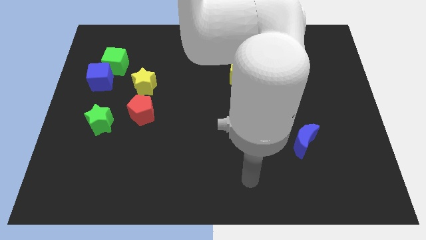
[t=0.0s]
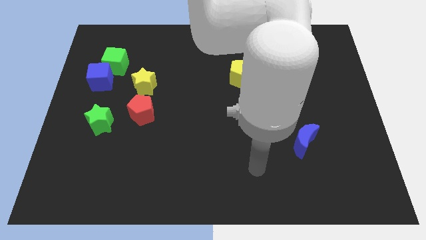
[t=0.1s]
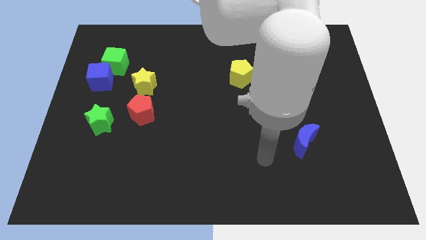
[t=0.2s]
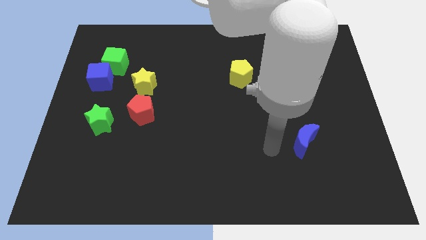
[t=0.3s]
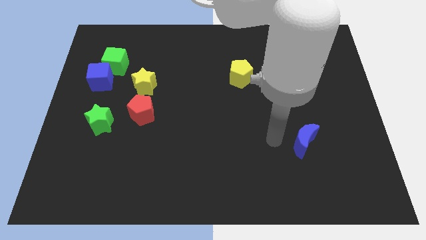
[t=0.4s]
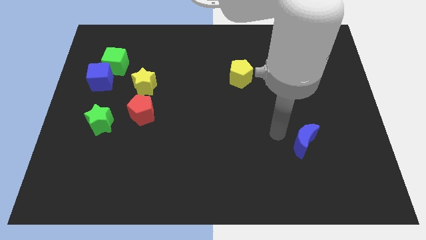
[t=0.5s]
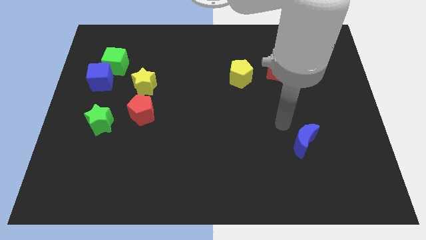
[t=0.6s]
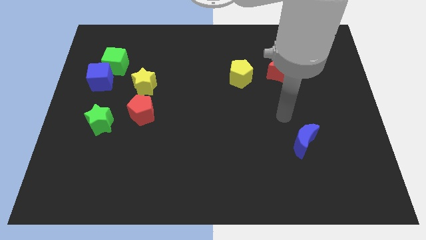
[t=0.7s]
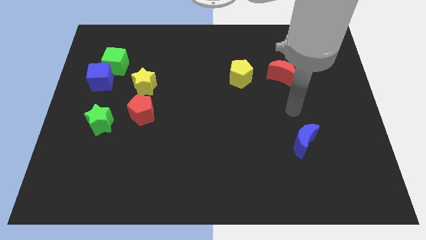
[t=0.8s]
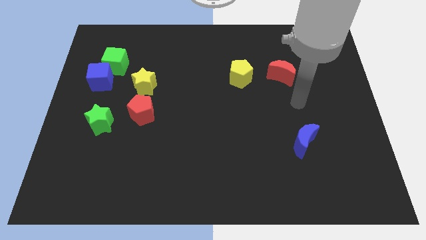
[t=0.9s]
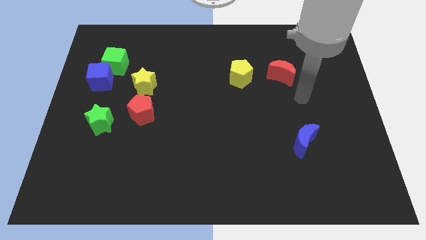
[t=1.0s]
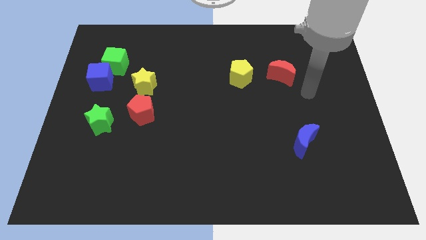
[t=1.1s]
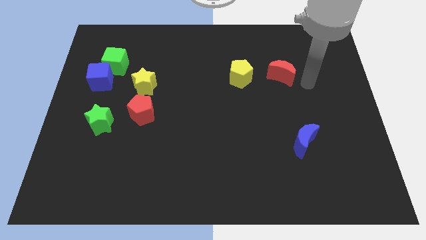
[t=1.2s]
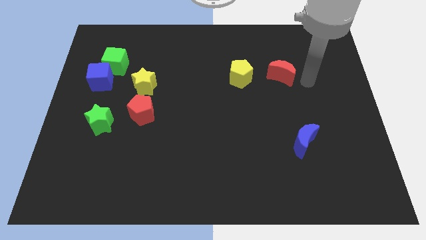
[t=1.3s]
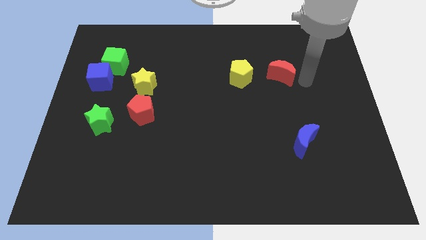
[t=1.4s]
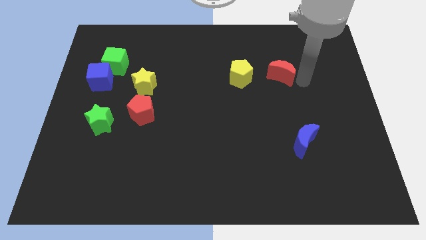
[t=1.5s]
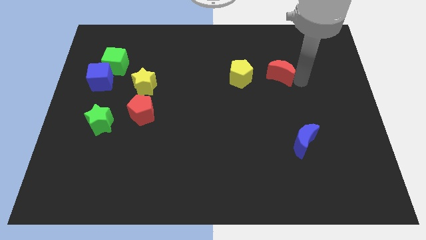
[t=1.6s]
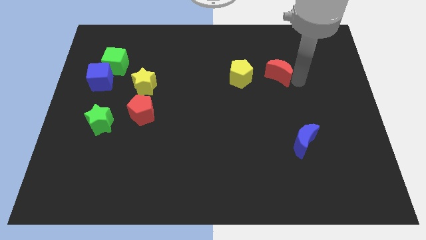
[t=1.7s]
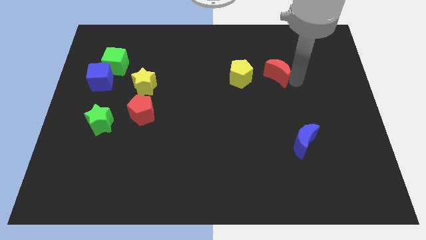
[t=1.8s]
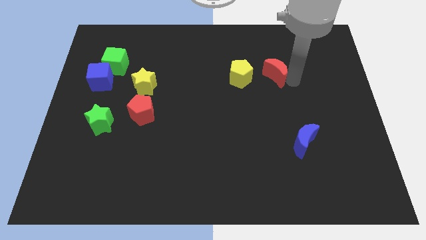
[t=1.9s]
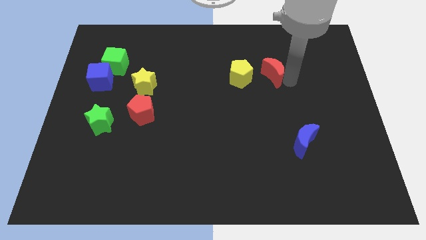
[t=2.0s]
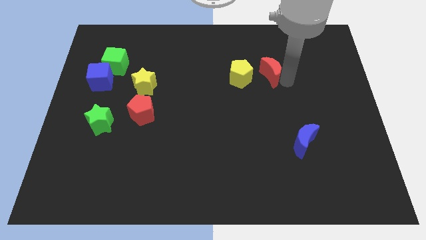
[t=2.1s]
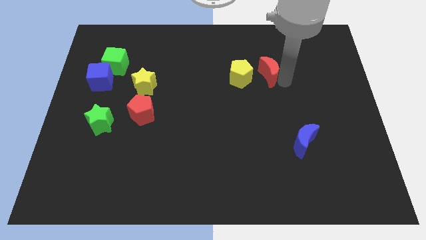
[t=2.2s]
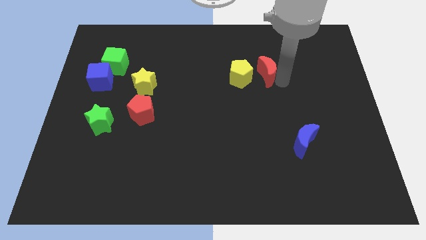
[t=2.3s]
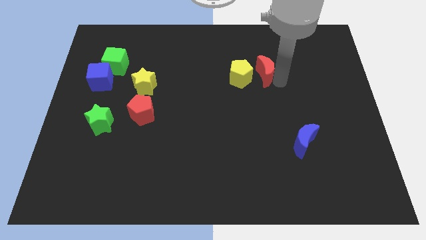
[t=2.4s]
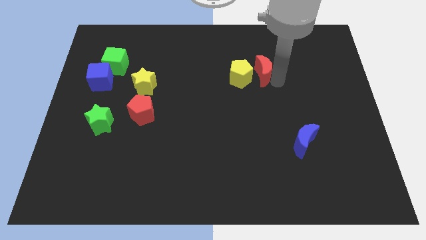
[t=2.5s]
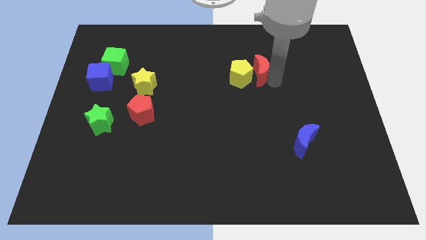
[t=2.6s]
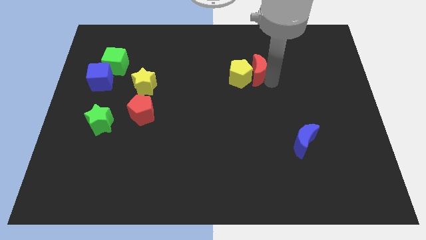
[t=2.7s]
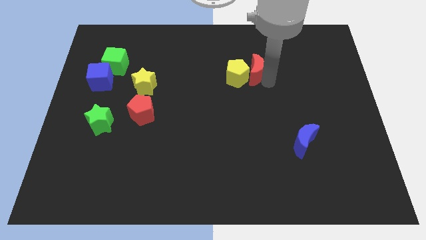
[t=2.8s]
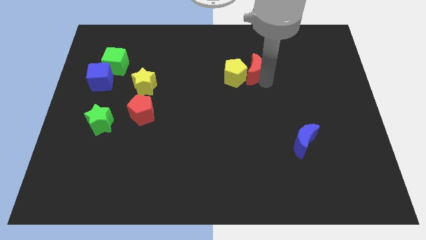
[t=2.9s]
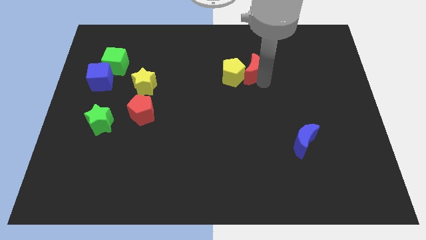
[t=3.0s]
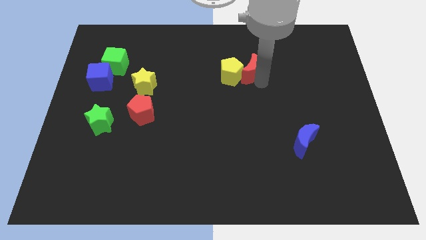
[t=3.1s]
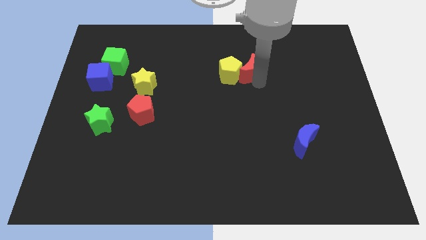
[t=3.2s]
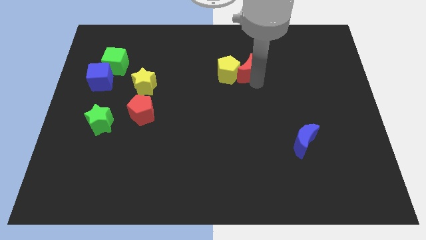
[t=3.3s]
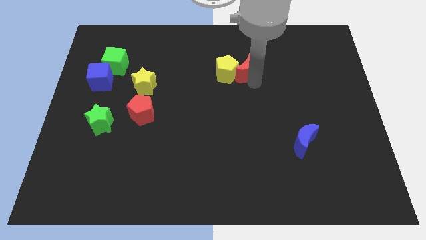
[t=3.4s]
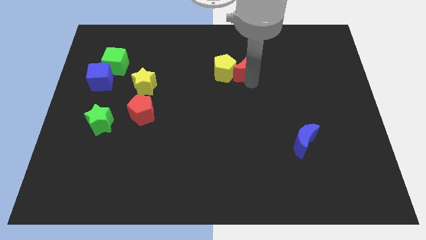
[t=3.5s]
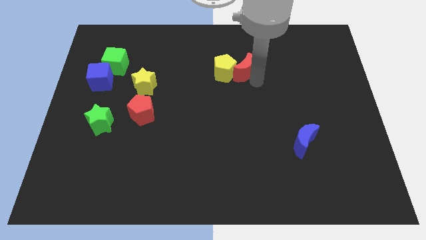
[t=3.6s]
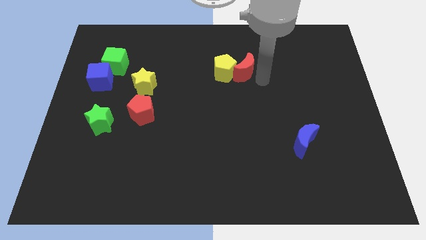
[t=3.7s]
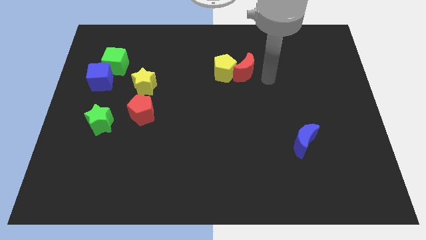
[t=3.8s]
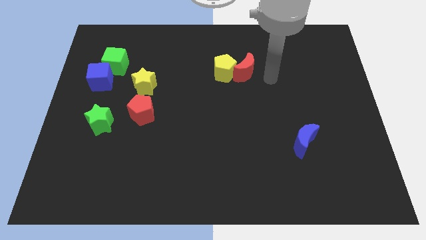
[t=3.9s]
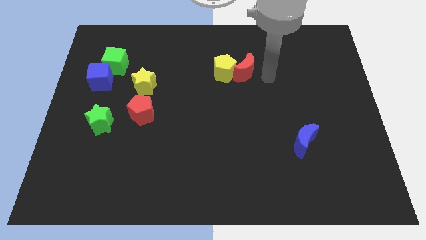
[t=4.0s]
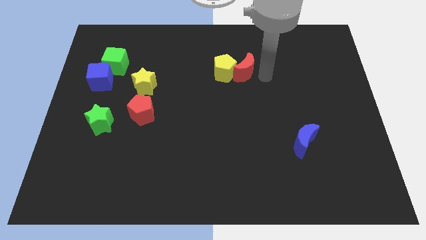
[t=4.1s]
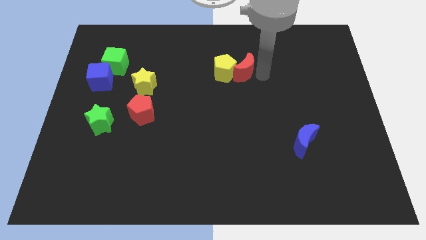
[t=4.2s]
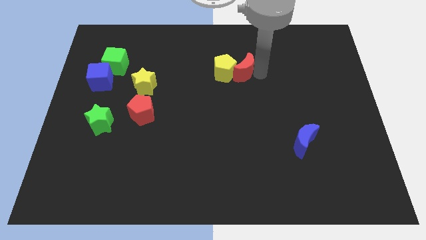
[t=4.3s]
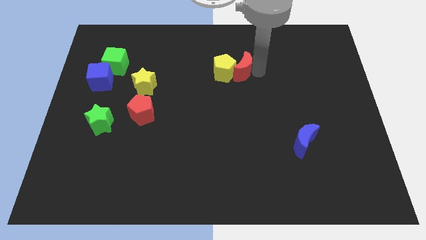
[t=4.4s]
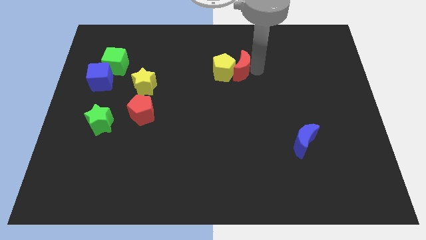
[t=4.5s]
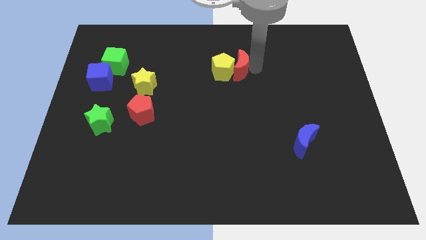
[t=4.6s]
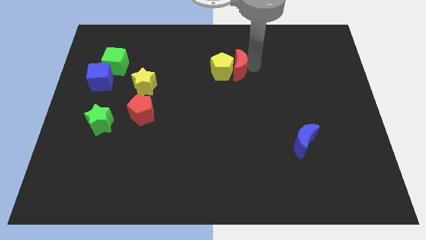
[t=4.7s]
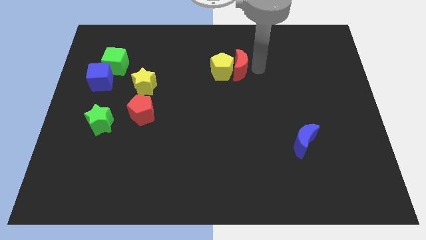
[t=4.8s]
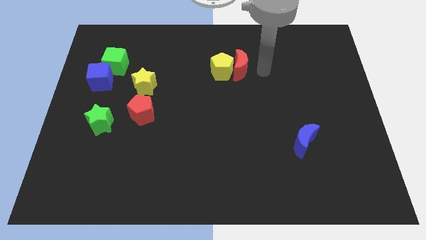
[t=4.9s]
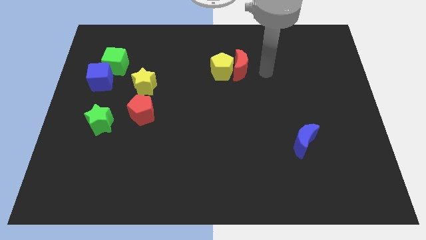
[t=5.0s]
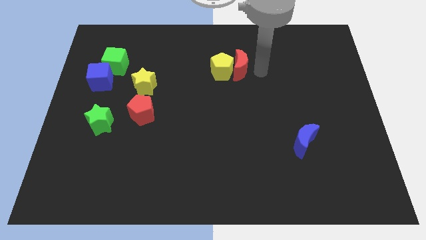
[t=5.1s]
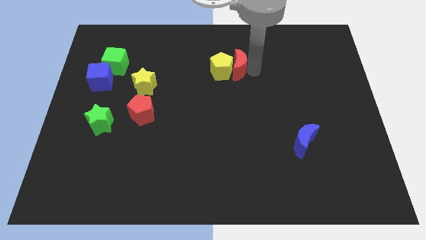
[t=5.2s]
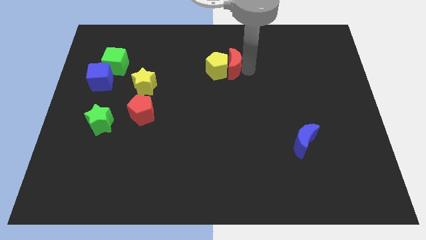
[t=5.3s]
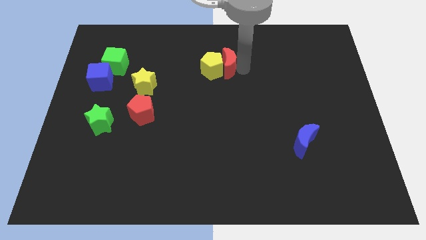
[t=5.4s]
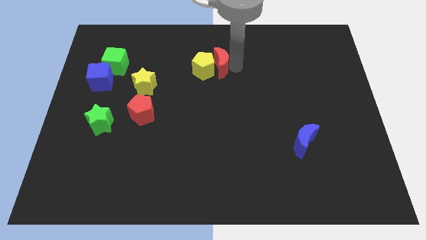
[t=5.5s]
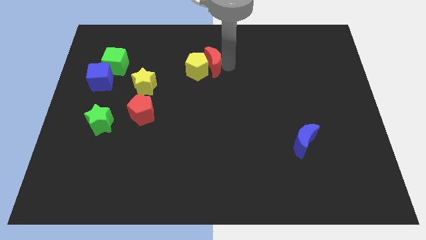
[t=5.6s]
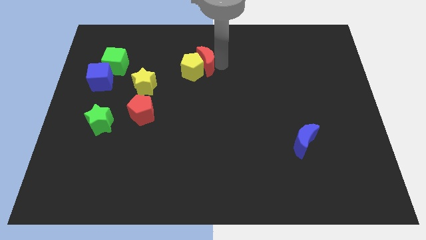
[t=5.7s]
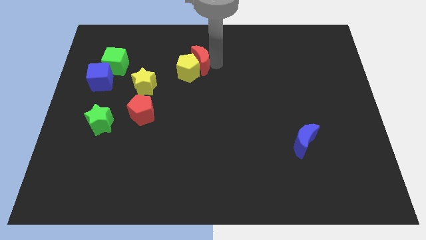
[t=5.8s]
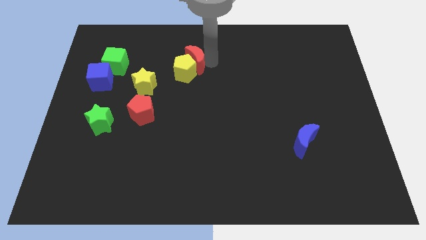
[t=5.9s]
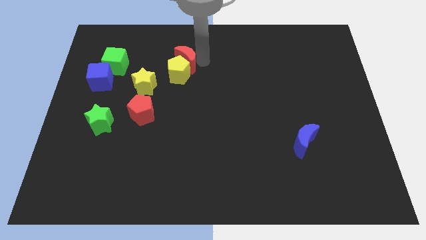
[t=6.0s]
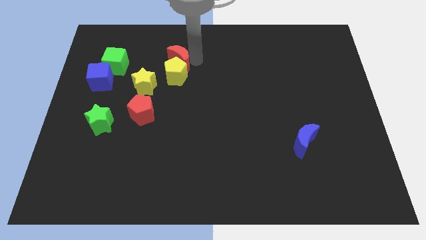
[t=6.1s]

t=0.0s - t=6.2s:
move the red moon diagonally up and to the right of the yellow star

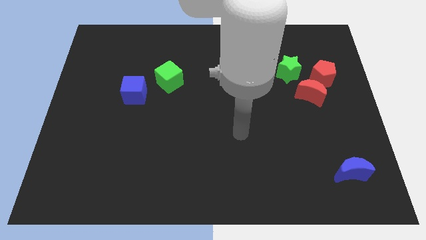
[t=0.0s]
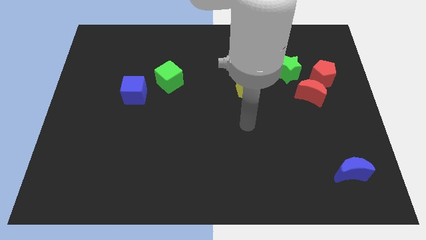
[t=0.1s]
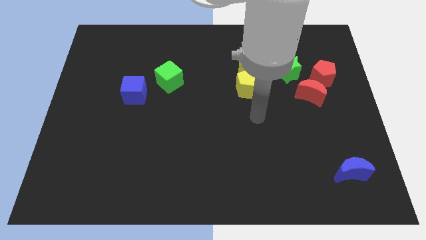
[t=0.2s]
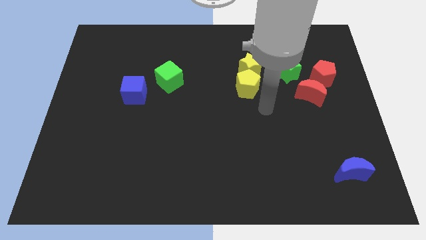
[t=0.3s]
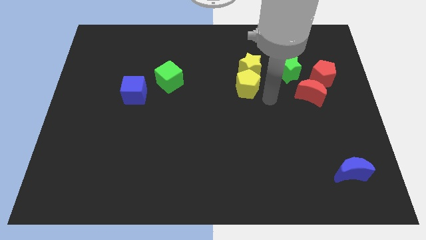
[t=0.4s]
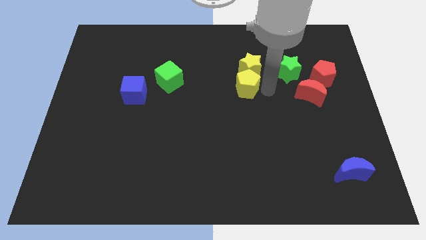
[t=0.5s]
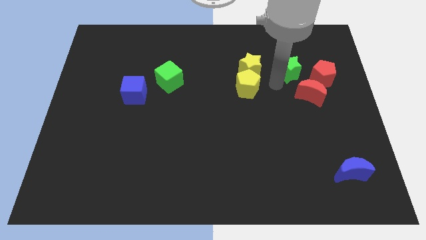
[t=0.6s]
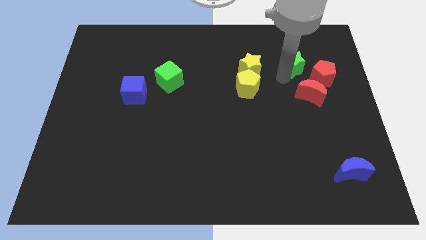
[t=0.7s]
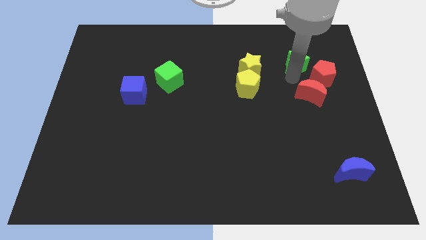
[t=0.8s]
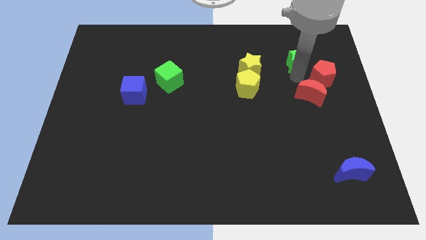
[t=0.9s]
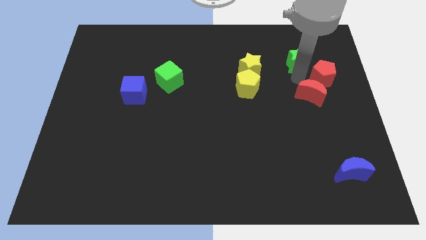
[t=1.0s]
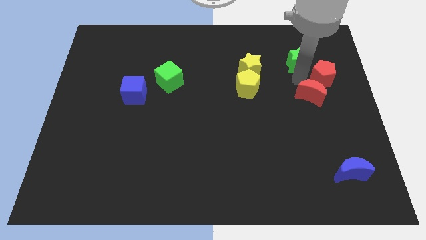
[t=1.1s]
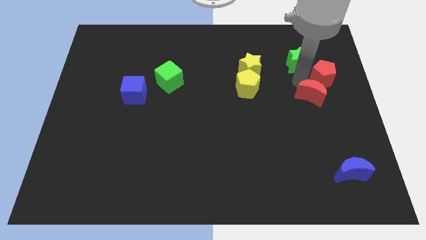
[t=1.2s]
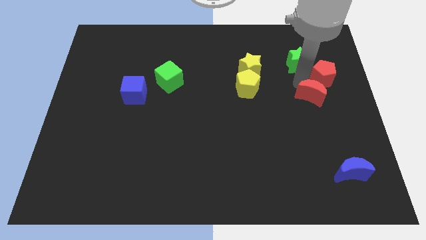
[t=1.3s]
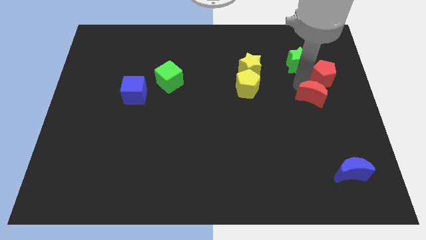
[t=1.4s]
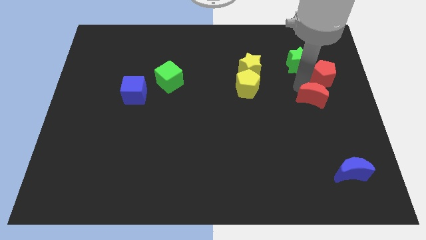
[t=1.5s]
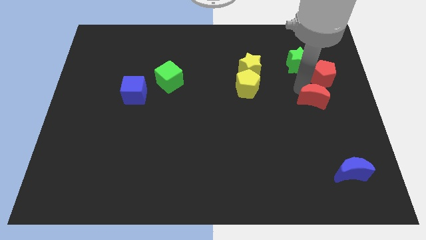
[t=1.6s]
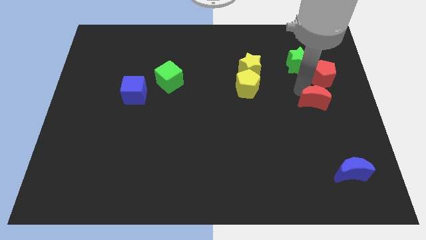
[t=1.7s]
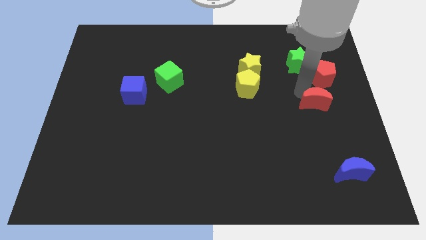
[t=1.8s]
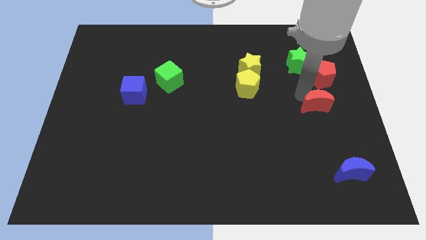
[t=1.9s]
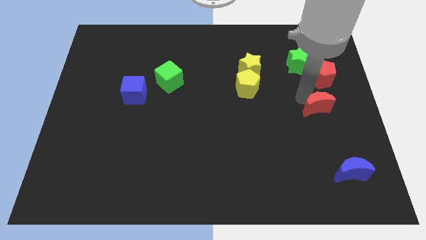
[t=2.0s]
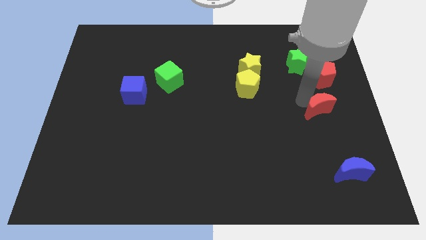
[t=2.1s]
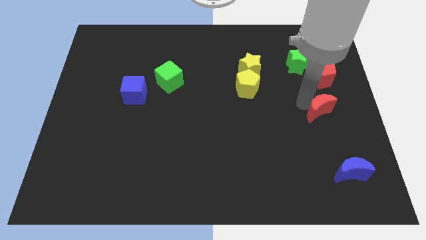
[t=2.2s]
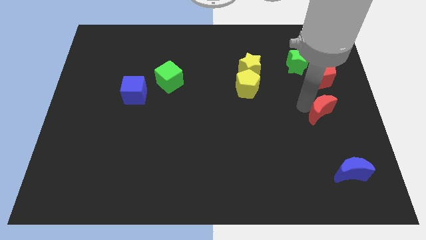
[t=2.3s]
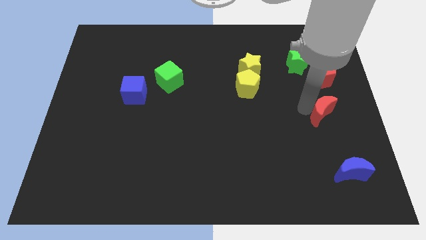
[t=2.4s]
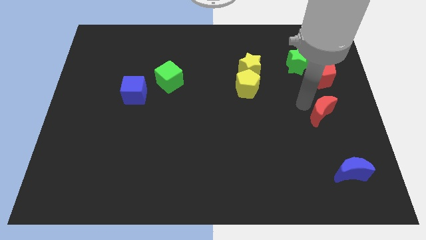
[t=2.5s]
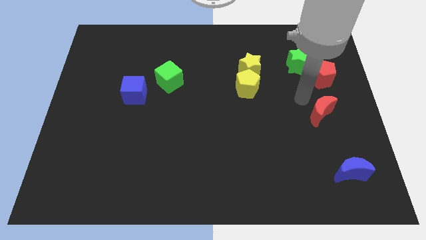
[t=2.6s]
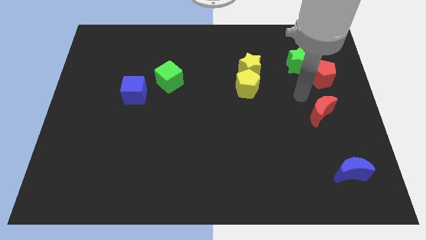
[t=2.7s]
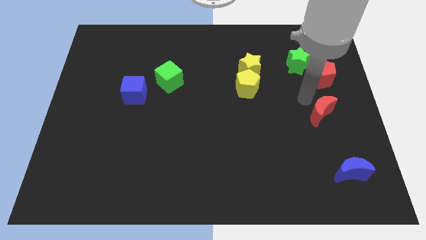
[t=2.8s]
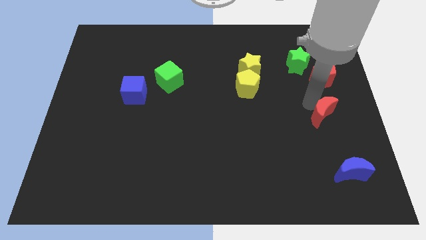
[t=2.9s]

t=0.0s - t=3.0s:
slide the red moon to the top side of the blue moon
